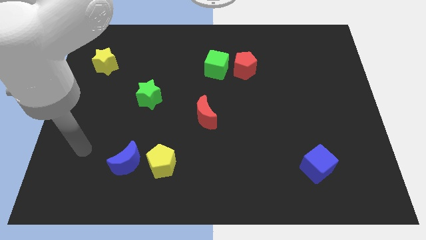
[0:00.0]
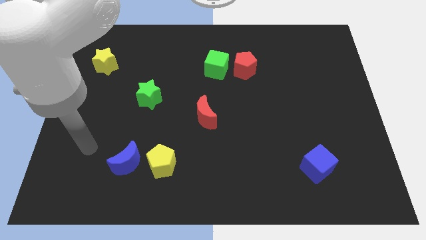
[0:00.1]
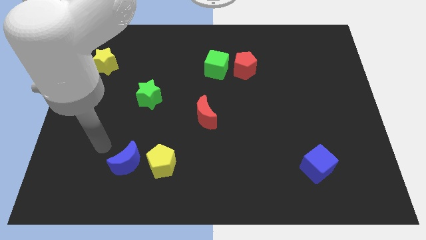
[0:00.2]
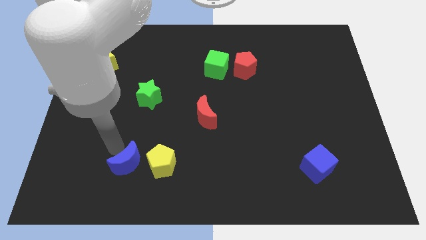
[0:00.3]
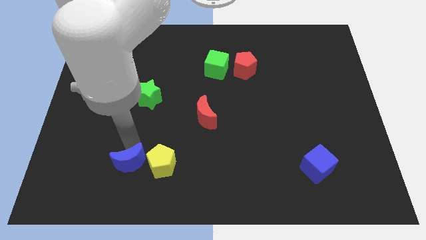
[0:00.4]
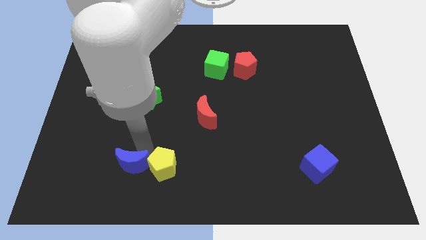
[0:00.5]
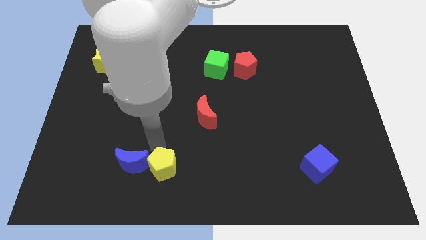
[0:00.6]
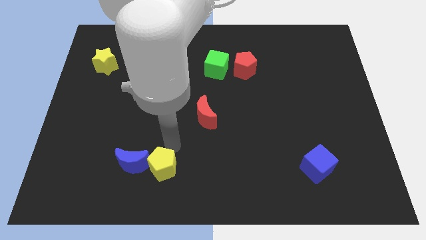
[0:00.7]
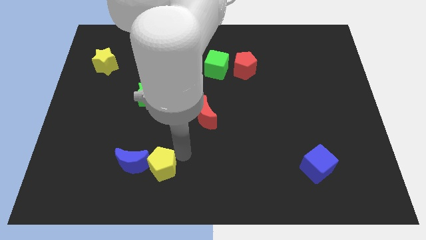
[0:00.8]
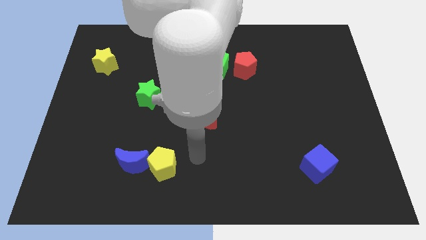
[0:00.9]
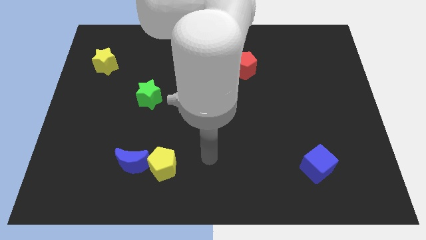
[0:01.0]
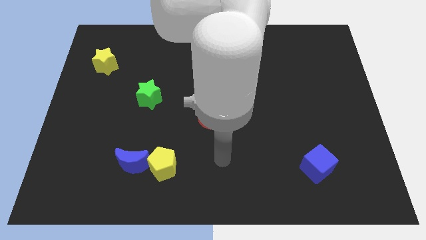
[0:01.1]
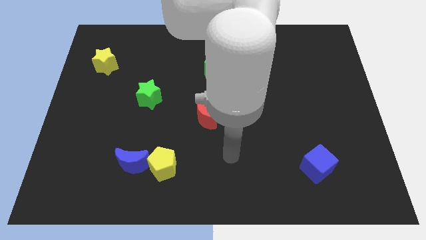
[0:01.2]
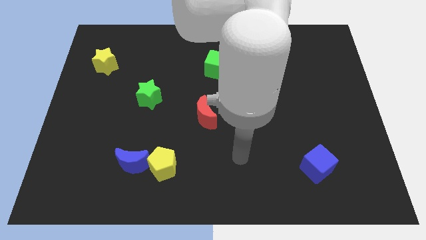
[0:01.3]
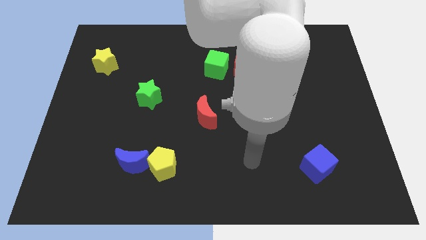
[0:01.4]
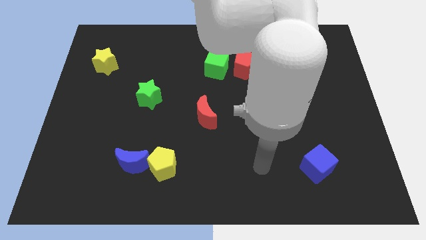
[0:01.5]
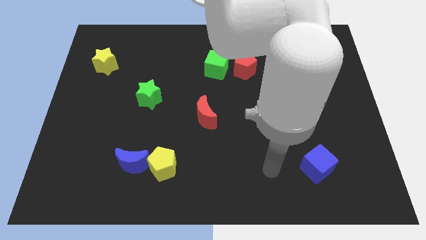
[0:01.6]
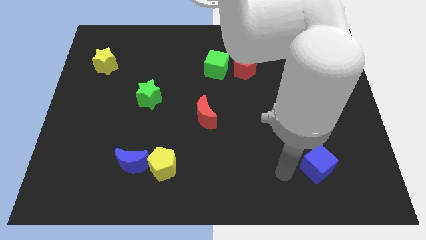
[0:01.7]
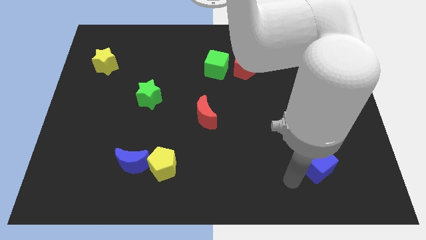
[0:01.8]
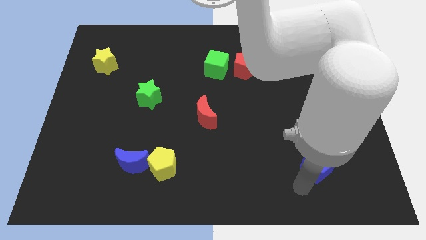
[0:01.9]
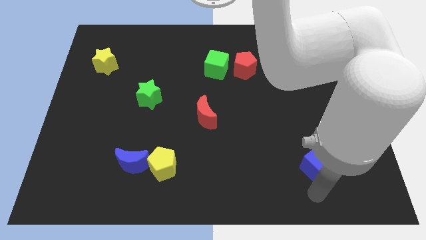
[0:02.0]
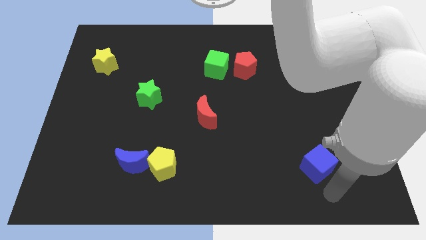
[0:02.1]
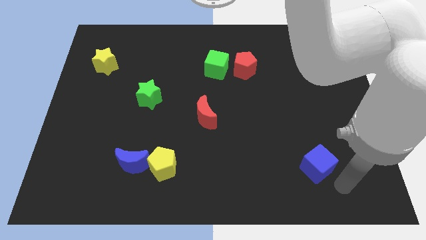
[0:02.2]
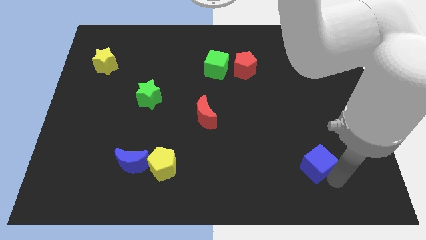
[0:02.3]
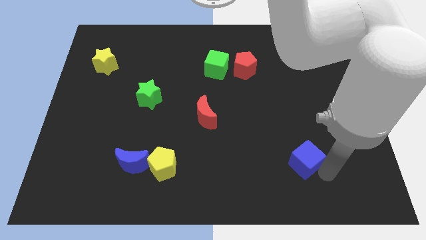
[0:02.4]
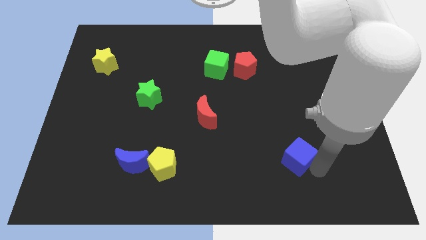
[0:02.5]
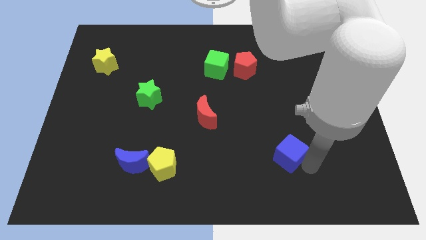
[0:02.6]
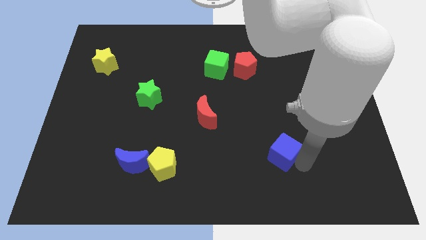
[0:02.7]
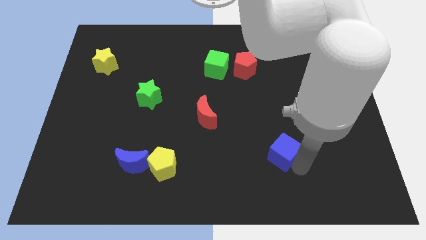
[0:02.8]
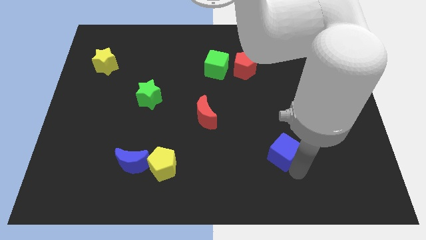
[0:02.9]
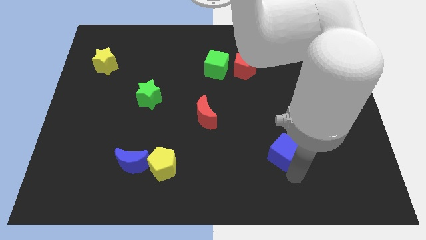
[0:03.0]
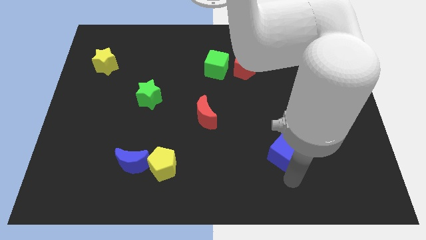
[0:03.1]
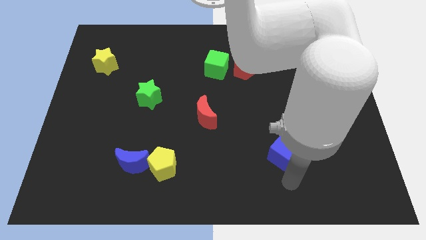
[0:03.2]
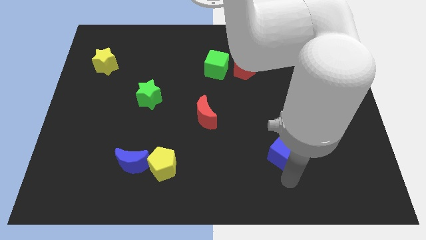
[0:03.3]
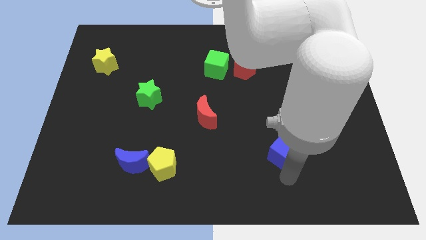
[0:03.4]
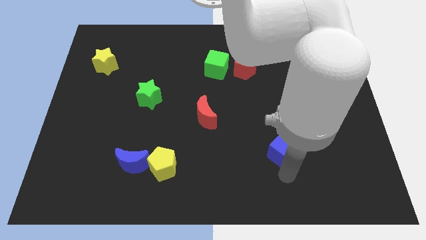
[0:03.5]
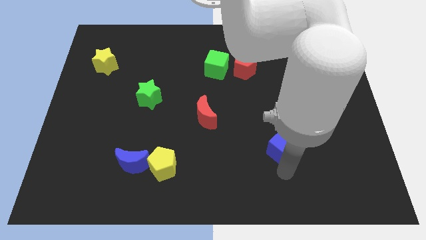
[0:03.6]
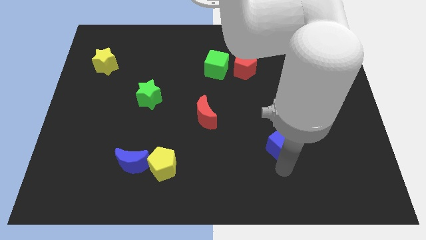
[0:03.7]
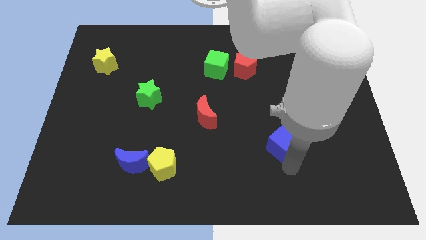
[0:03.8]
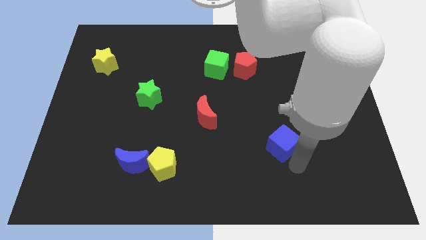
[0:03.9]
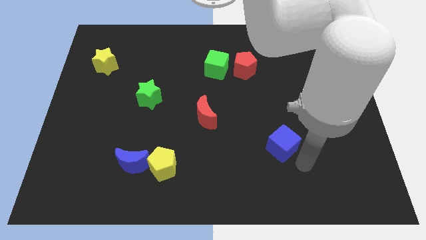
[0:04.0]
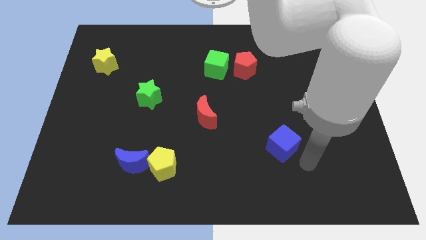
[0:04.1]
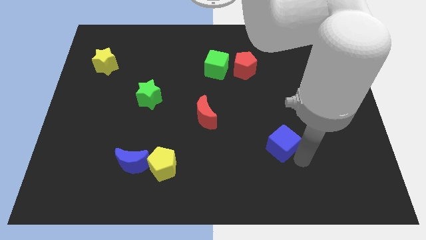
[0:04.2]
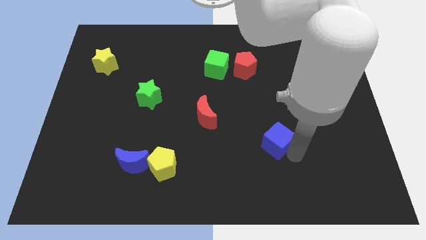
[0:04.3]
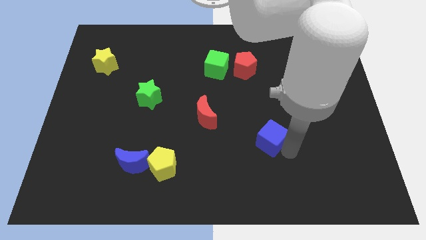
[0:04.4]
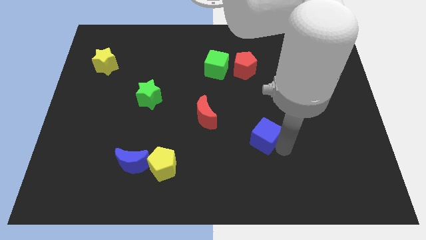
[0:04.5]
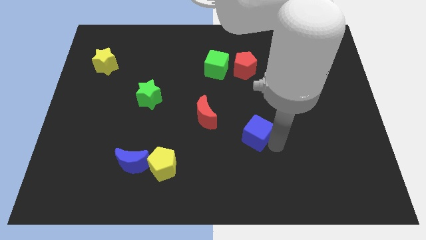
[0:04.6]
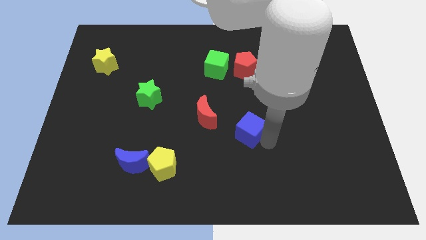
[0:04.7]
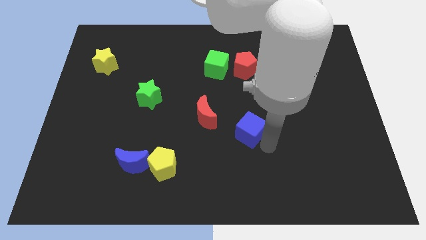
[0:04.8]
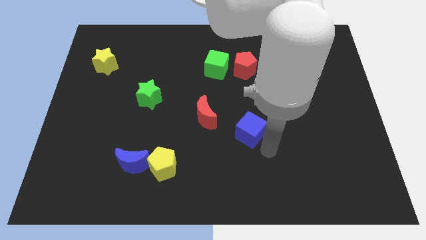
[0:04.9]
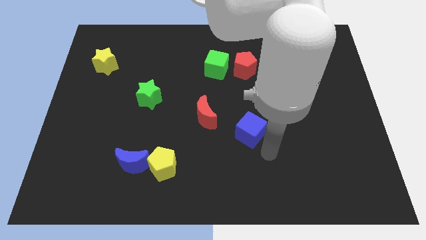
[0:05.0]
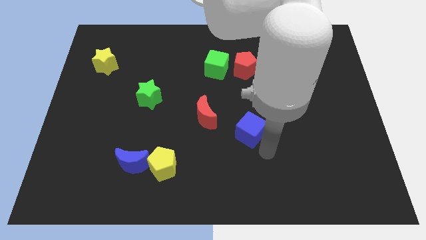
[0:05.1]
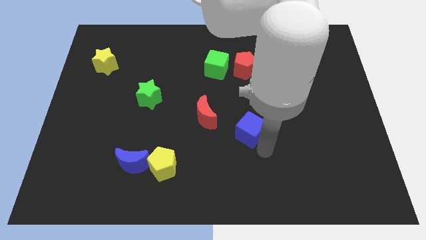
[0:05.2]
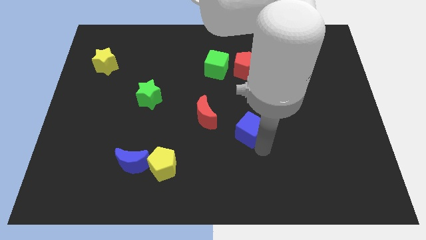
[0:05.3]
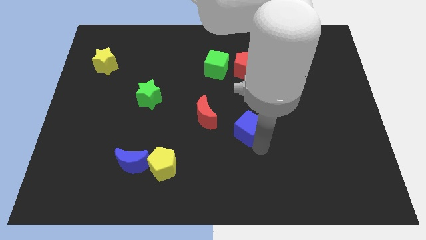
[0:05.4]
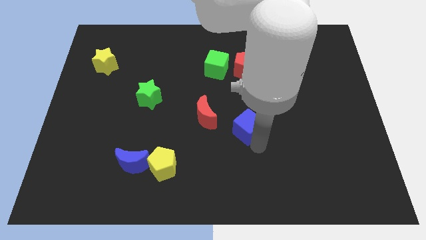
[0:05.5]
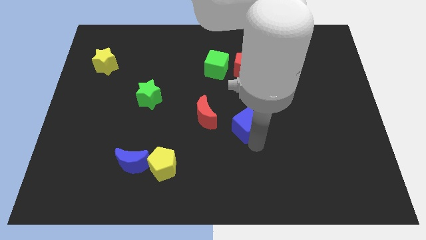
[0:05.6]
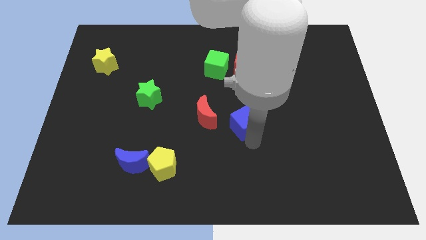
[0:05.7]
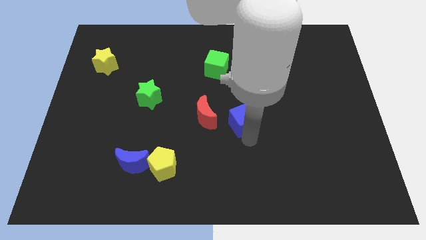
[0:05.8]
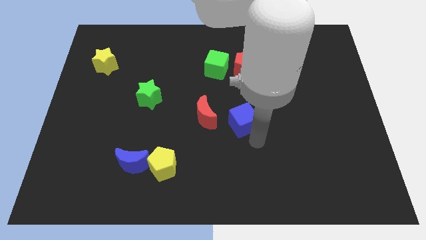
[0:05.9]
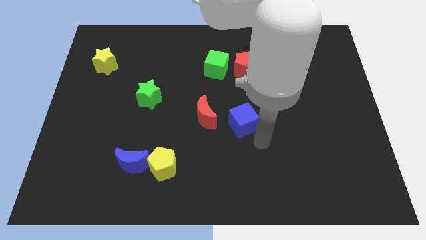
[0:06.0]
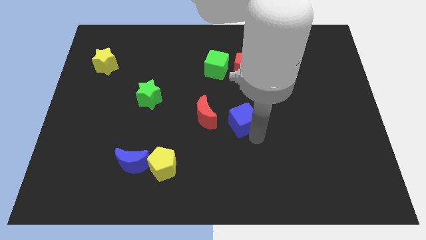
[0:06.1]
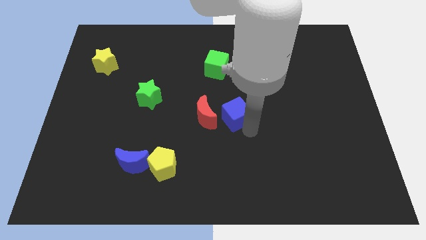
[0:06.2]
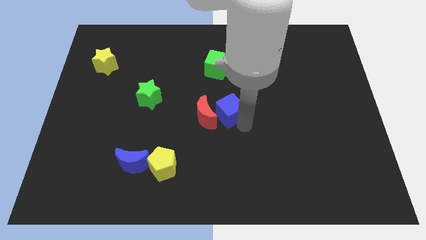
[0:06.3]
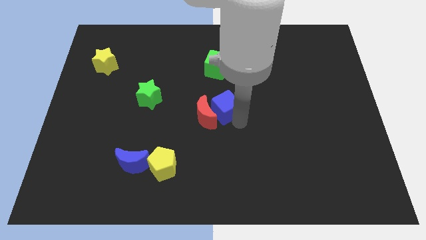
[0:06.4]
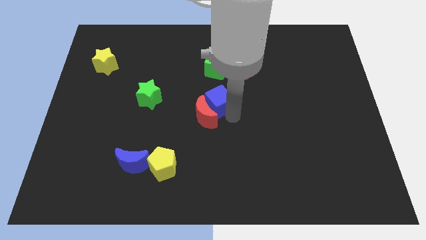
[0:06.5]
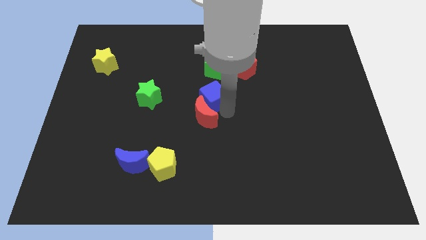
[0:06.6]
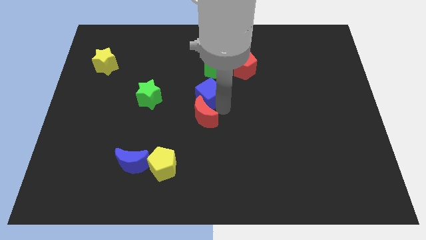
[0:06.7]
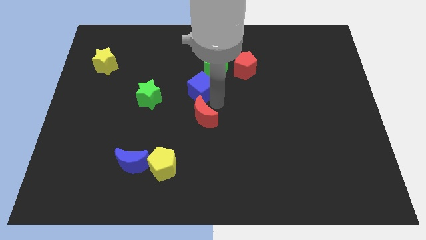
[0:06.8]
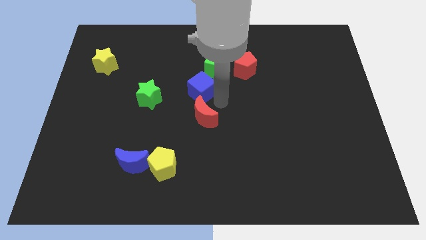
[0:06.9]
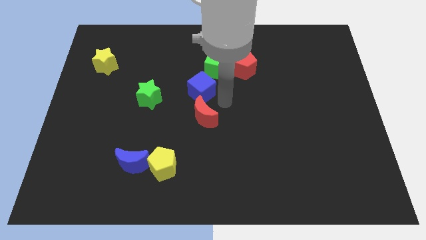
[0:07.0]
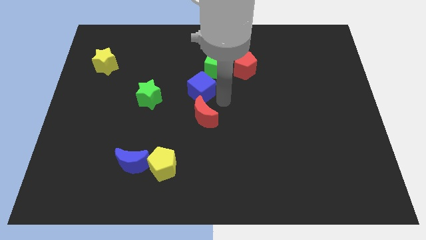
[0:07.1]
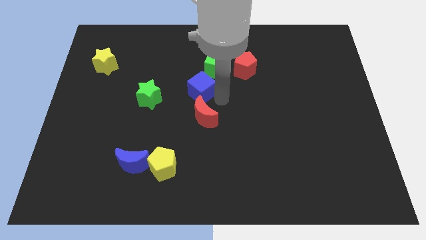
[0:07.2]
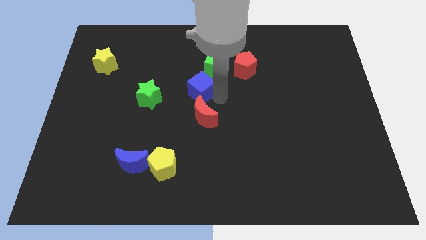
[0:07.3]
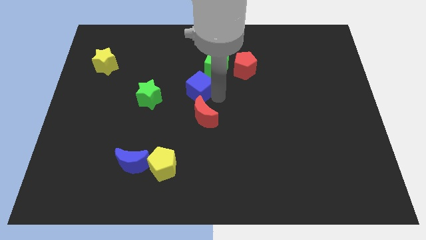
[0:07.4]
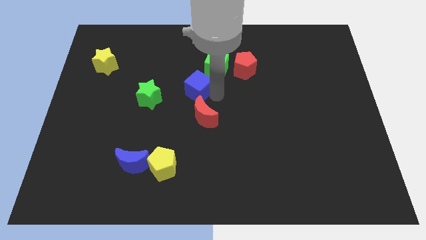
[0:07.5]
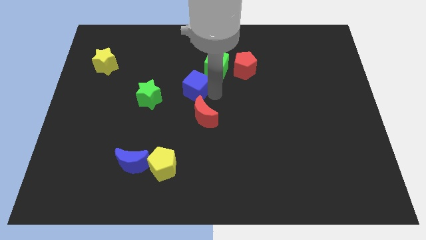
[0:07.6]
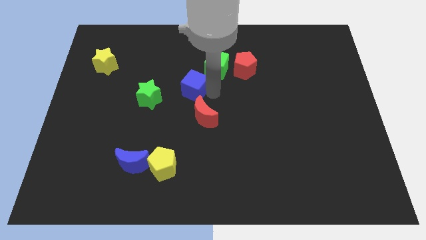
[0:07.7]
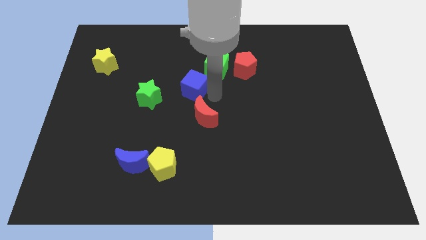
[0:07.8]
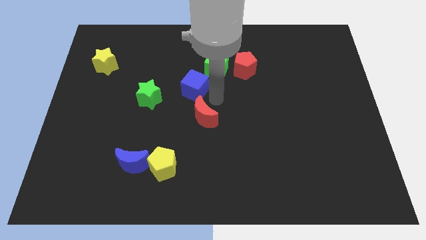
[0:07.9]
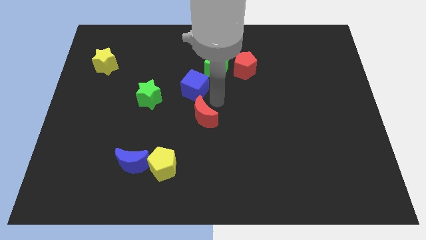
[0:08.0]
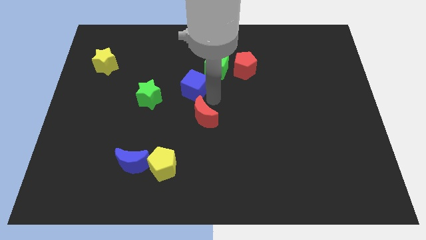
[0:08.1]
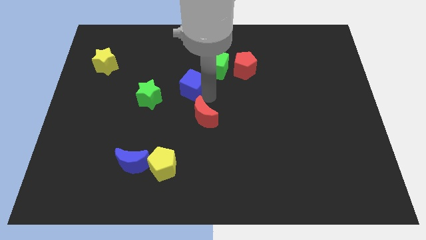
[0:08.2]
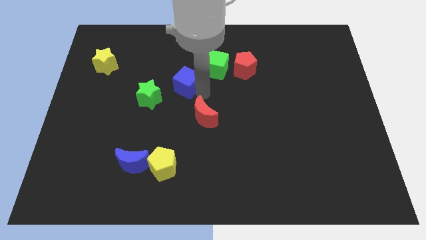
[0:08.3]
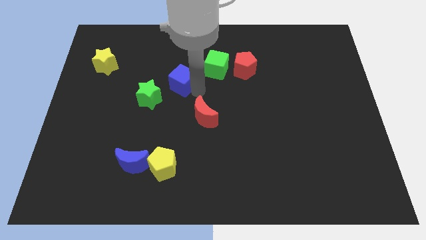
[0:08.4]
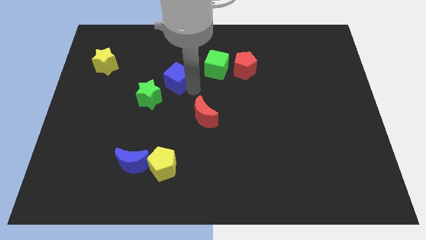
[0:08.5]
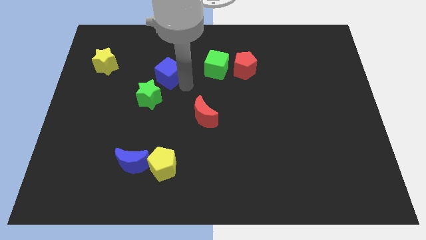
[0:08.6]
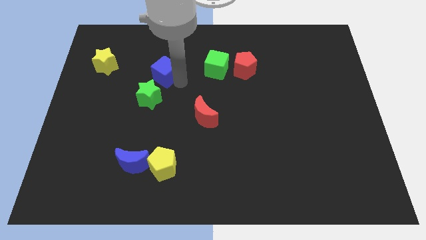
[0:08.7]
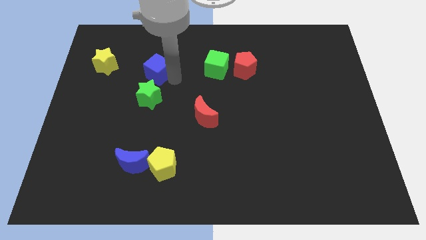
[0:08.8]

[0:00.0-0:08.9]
put the blue cube right of the yellow star
